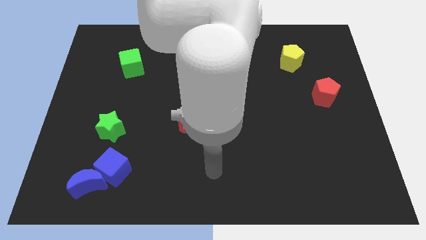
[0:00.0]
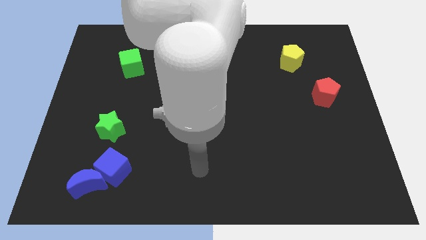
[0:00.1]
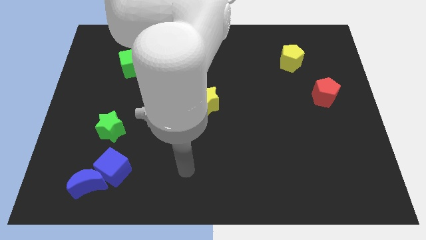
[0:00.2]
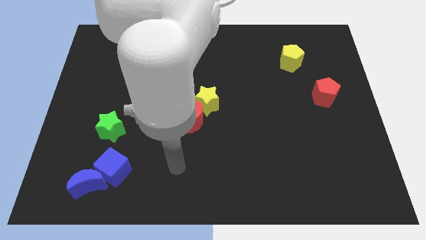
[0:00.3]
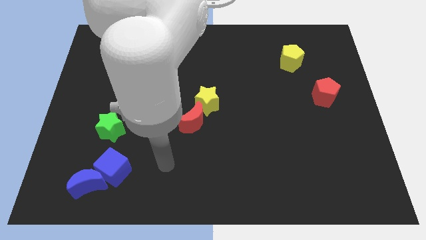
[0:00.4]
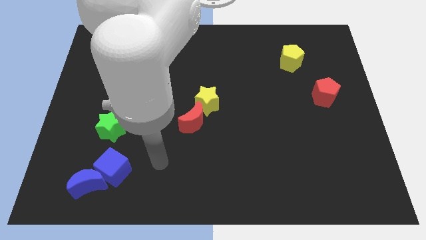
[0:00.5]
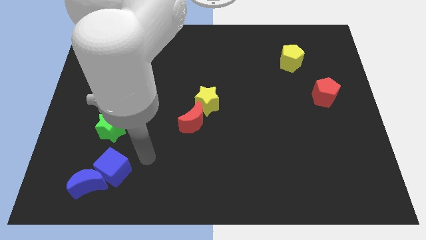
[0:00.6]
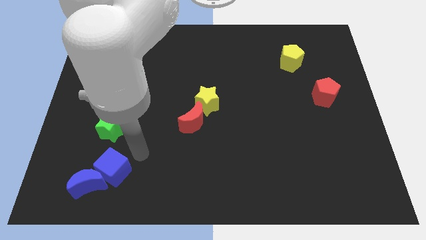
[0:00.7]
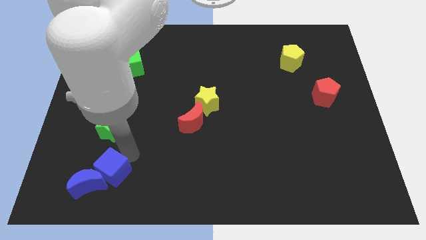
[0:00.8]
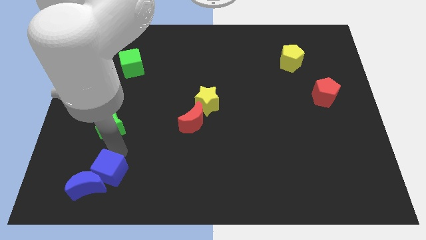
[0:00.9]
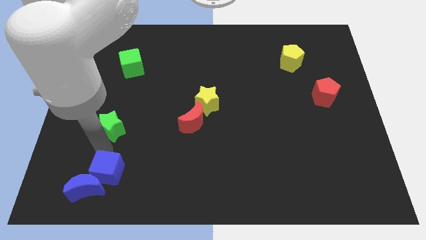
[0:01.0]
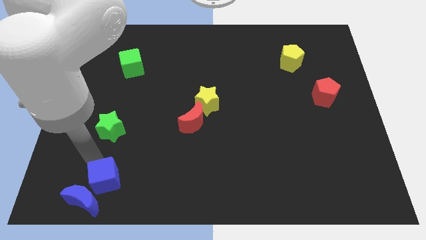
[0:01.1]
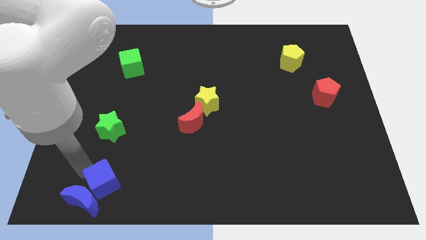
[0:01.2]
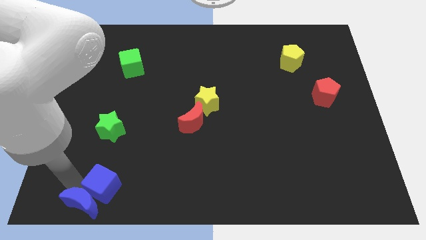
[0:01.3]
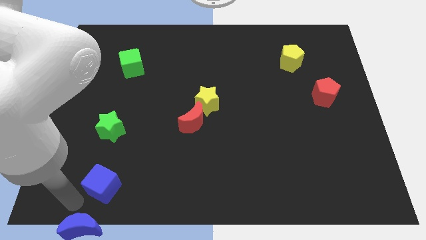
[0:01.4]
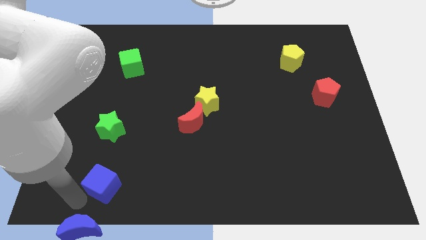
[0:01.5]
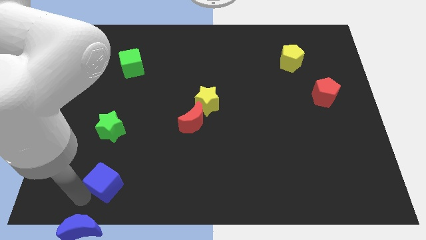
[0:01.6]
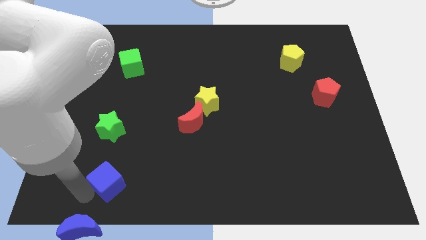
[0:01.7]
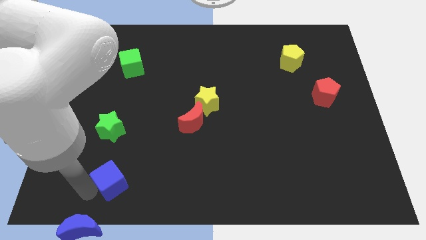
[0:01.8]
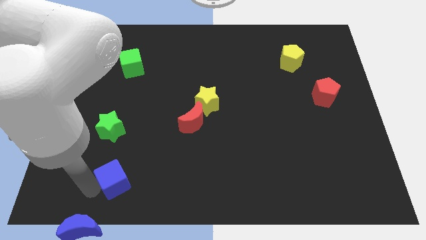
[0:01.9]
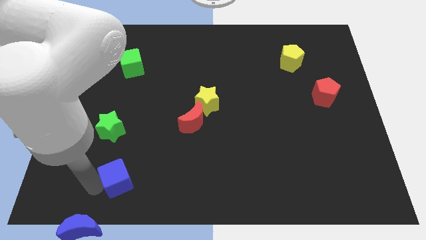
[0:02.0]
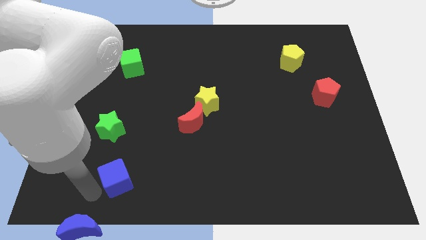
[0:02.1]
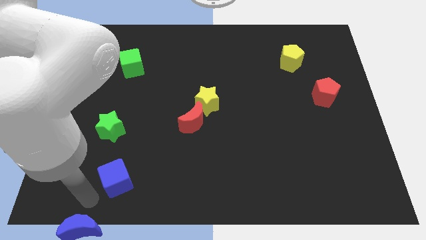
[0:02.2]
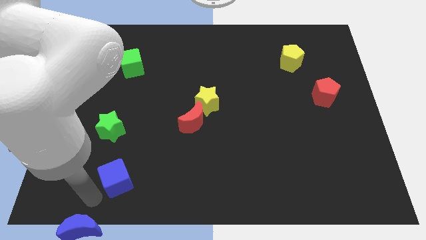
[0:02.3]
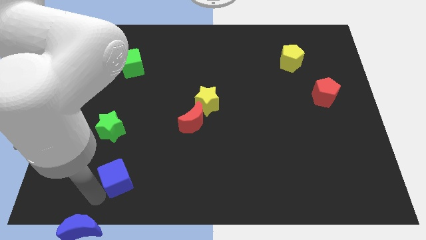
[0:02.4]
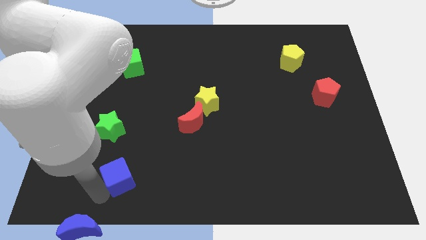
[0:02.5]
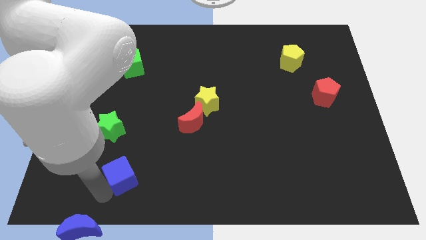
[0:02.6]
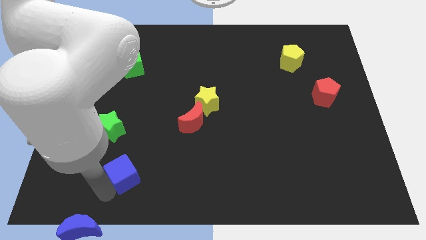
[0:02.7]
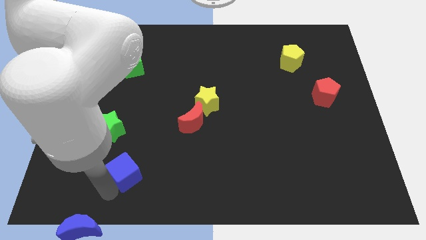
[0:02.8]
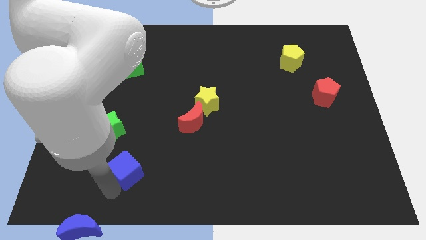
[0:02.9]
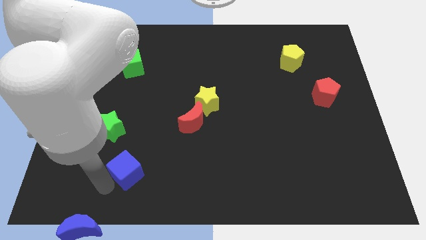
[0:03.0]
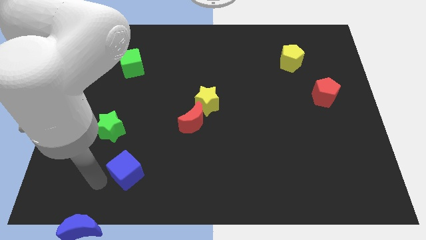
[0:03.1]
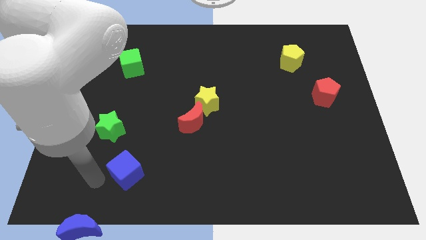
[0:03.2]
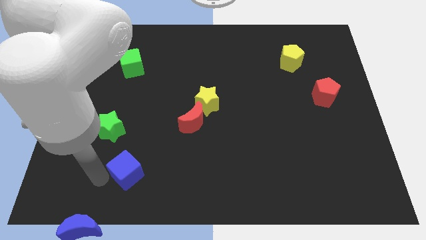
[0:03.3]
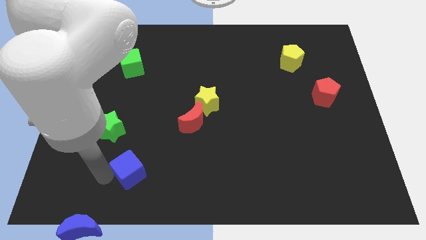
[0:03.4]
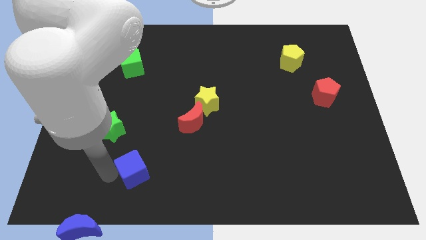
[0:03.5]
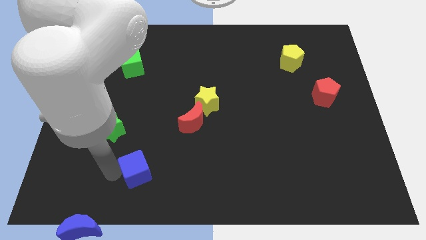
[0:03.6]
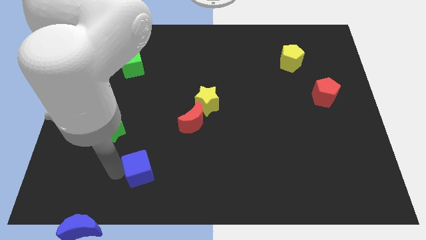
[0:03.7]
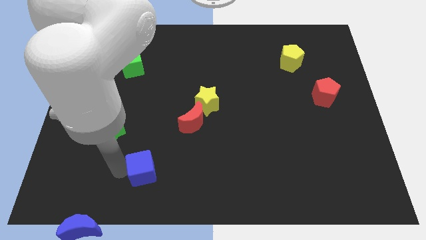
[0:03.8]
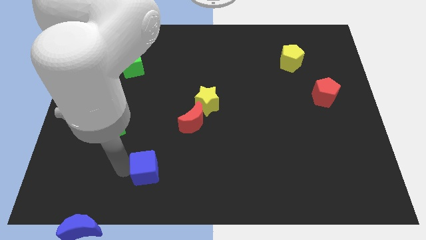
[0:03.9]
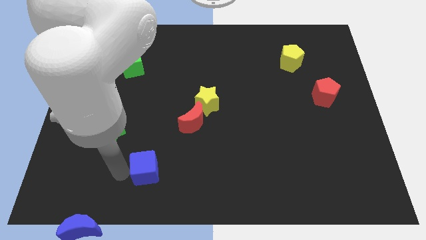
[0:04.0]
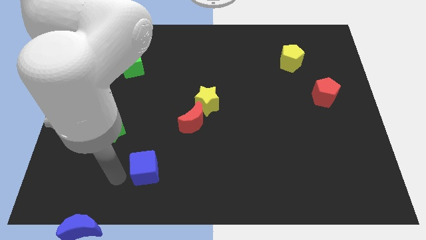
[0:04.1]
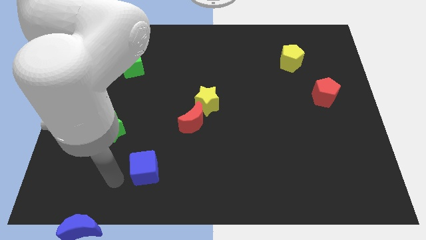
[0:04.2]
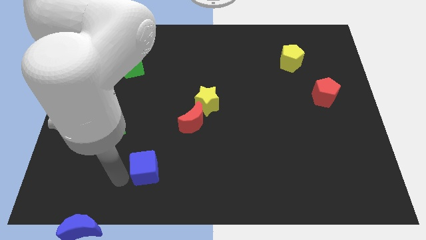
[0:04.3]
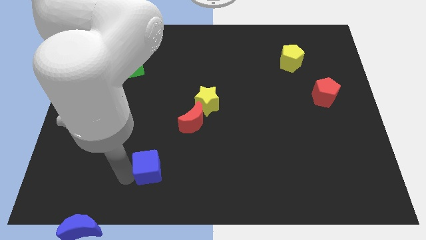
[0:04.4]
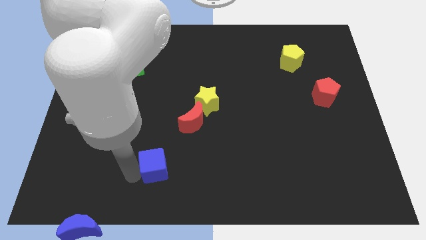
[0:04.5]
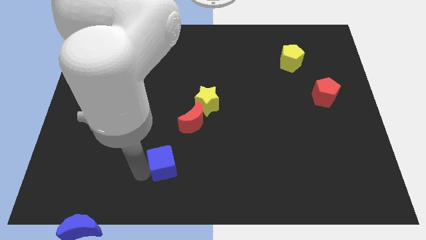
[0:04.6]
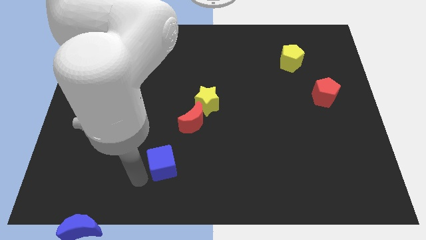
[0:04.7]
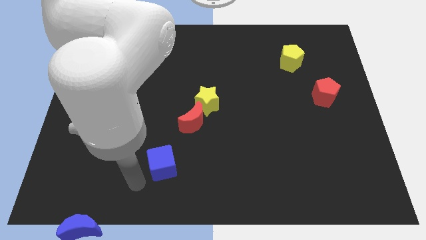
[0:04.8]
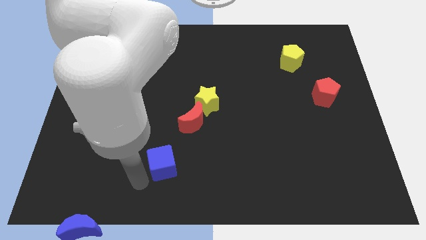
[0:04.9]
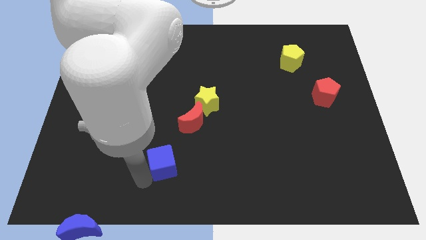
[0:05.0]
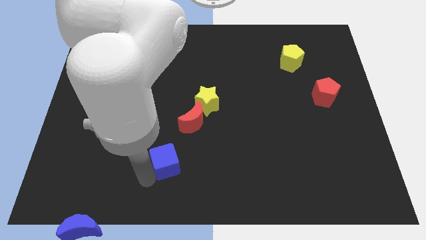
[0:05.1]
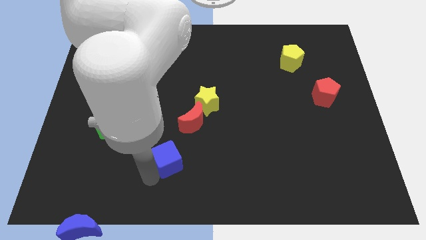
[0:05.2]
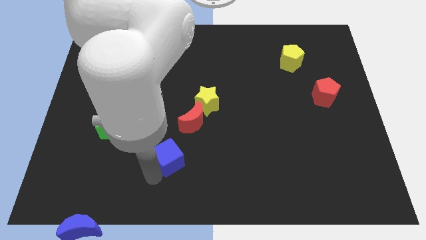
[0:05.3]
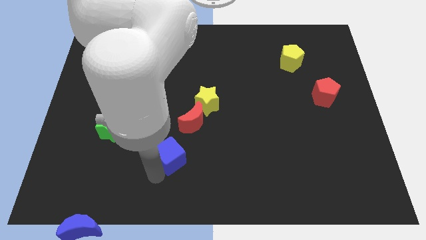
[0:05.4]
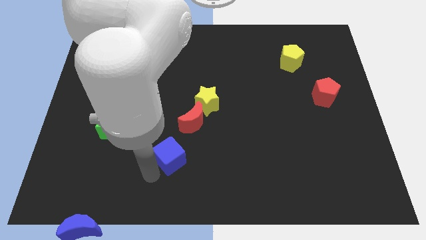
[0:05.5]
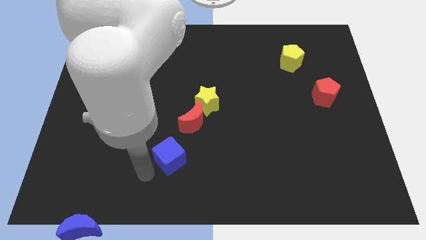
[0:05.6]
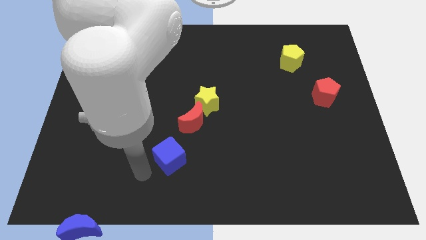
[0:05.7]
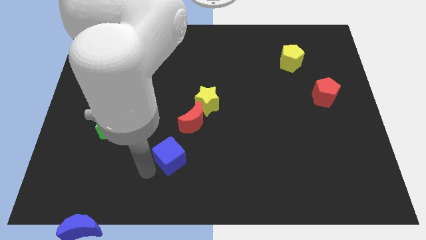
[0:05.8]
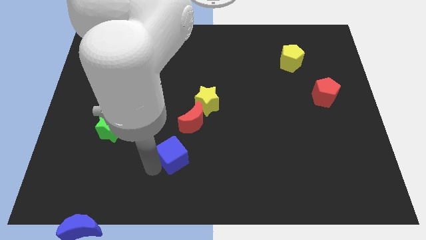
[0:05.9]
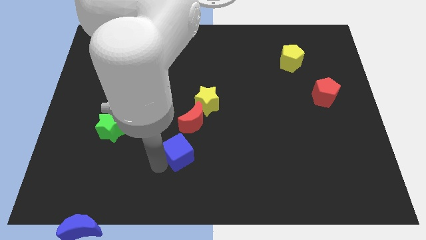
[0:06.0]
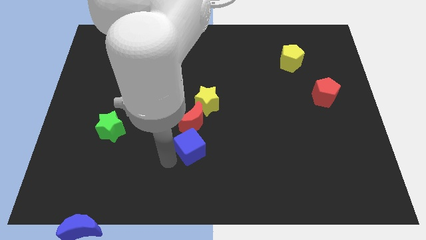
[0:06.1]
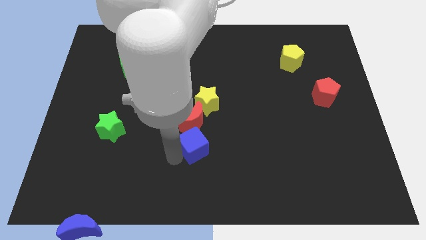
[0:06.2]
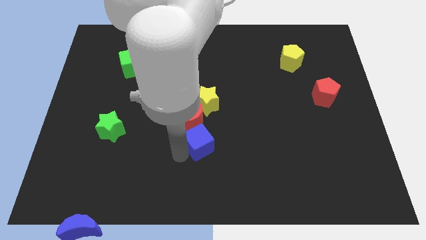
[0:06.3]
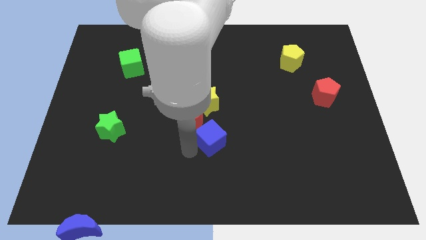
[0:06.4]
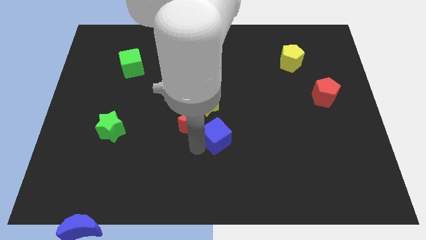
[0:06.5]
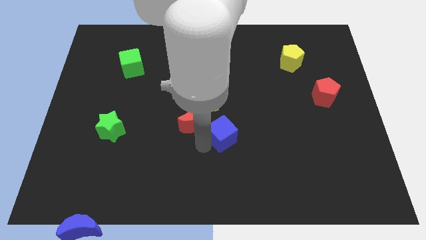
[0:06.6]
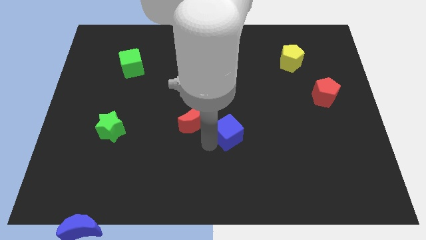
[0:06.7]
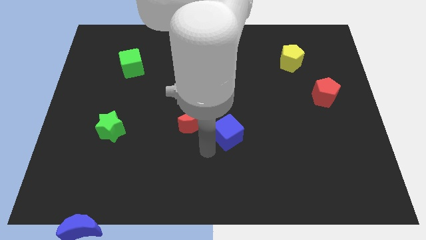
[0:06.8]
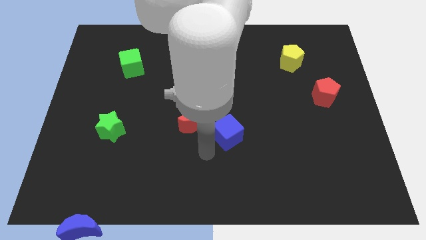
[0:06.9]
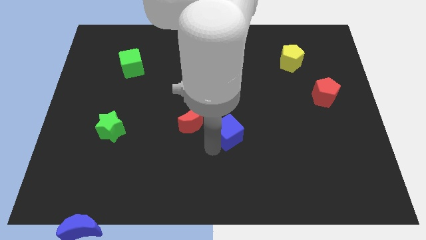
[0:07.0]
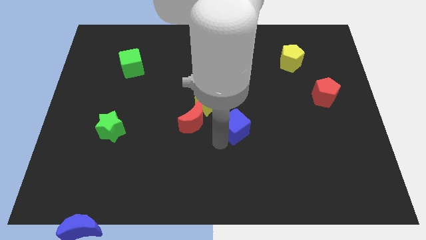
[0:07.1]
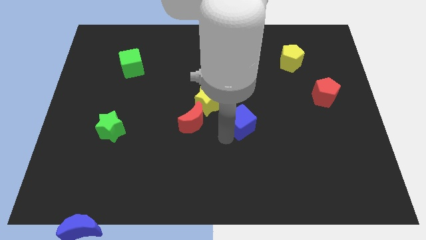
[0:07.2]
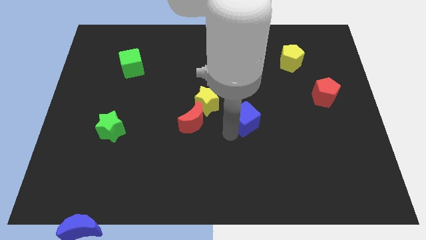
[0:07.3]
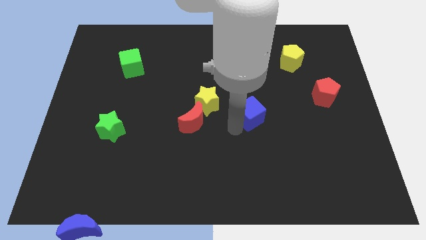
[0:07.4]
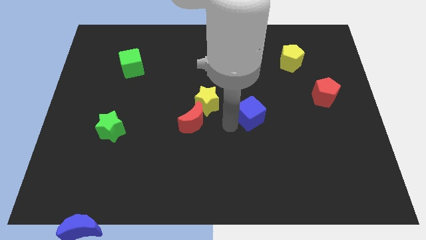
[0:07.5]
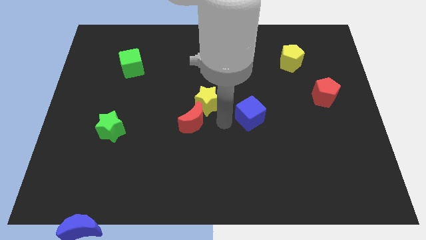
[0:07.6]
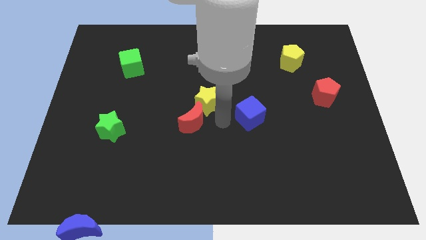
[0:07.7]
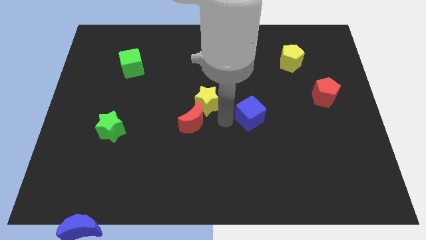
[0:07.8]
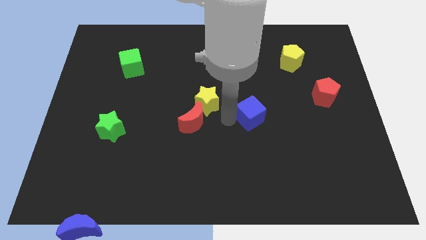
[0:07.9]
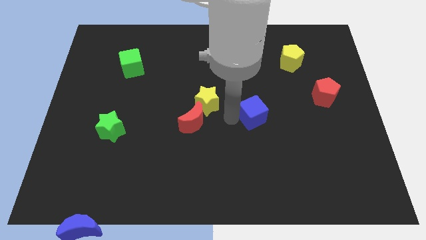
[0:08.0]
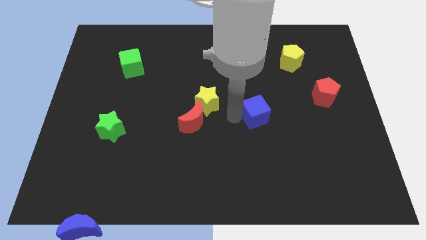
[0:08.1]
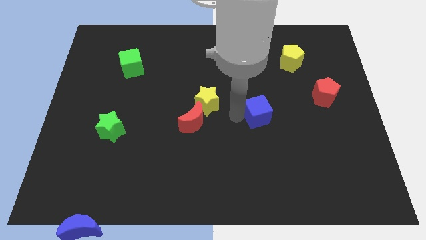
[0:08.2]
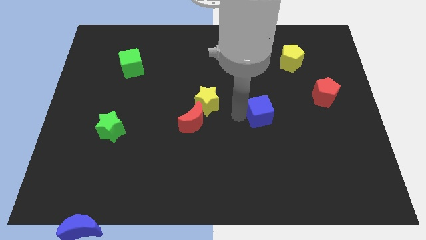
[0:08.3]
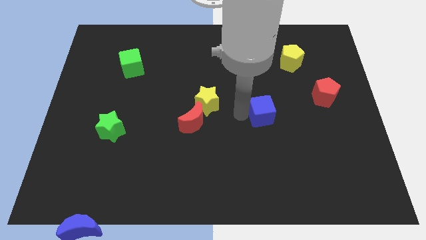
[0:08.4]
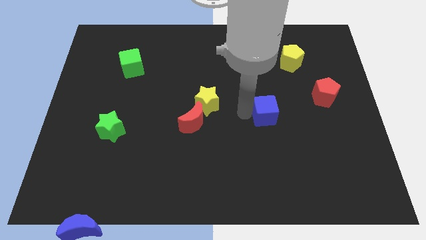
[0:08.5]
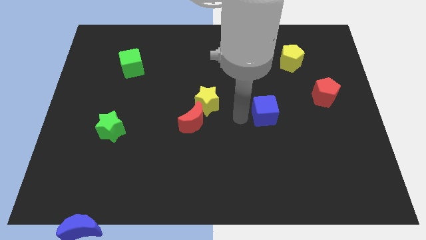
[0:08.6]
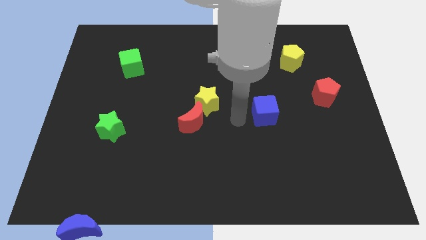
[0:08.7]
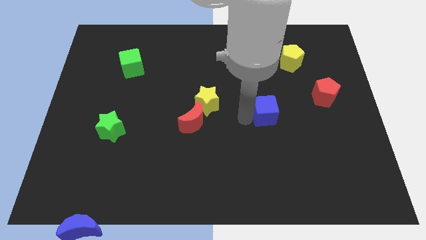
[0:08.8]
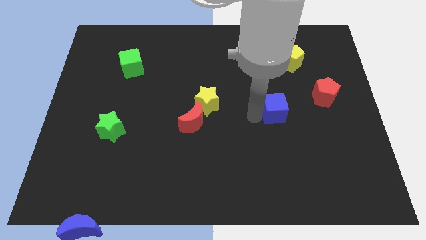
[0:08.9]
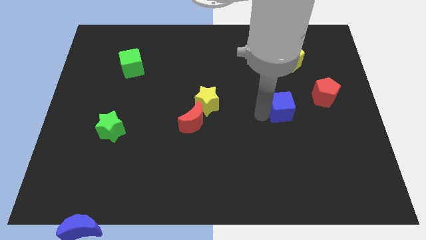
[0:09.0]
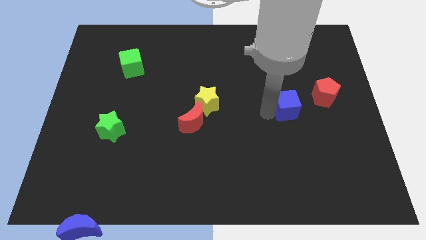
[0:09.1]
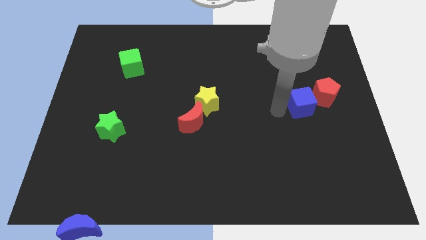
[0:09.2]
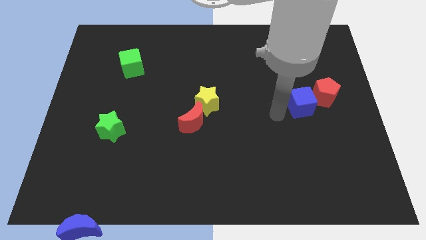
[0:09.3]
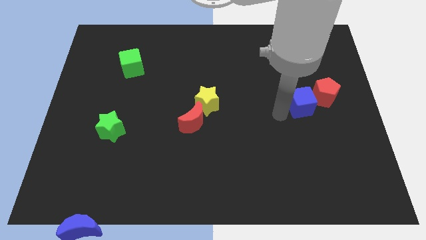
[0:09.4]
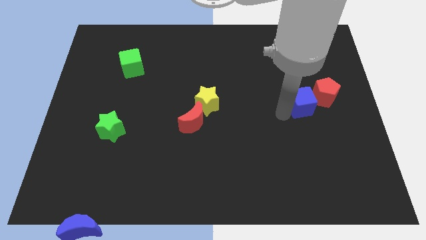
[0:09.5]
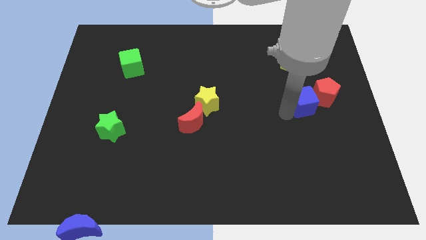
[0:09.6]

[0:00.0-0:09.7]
push the blue cube close to the red pentagon
